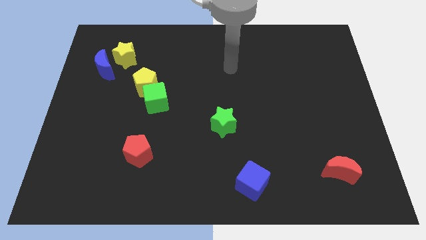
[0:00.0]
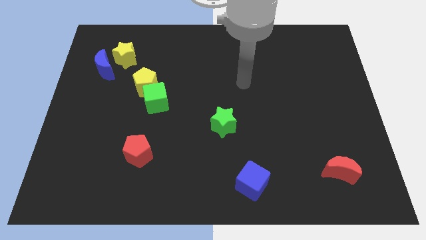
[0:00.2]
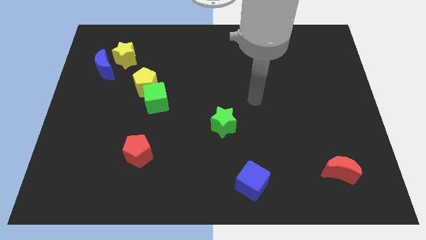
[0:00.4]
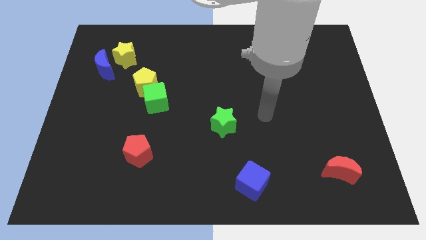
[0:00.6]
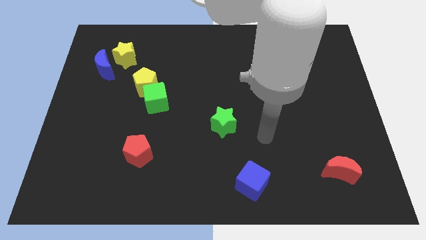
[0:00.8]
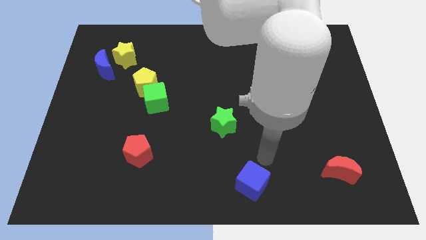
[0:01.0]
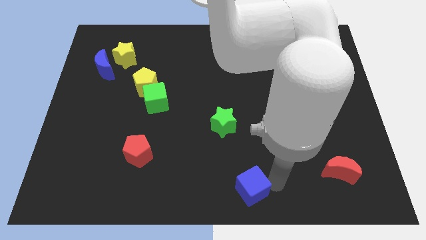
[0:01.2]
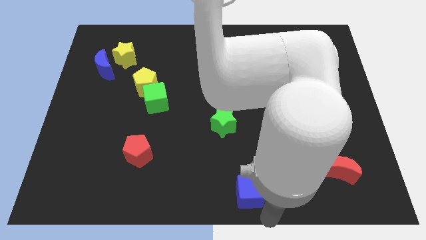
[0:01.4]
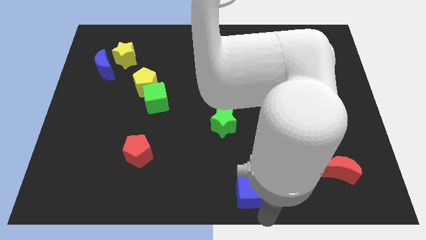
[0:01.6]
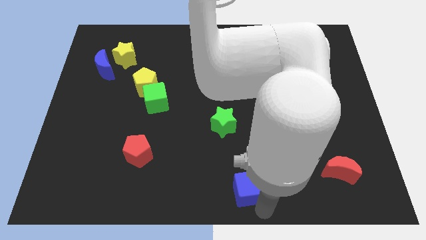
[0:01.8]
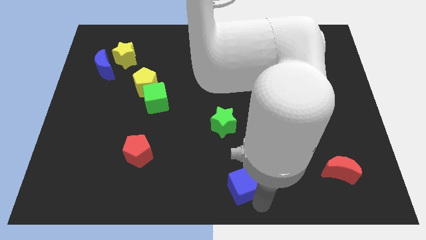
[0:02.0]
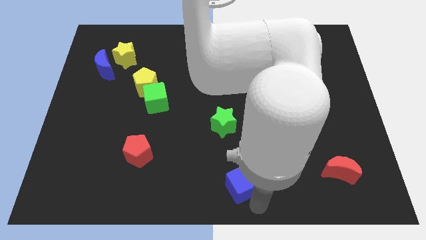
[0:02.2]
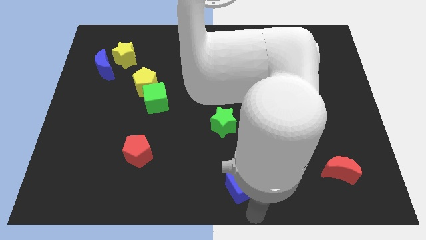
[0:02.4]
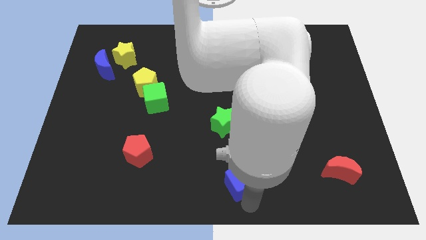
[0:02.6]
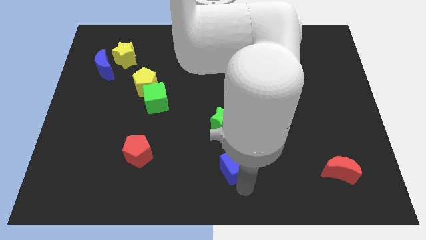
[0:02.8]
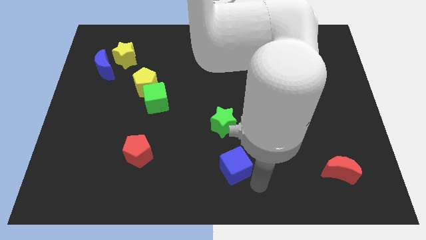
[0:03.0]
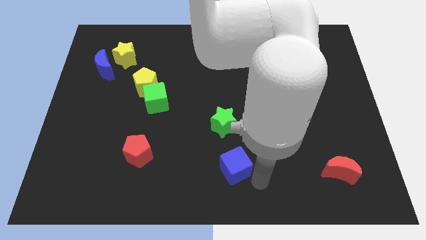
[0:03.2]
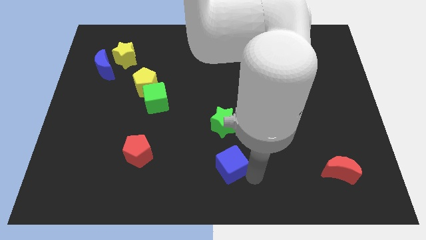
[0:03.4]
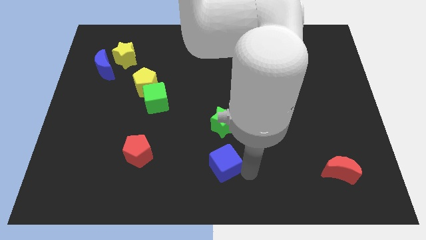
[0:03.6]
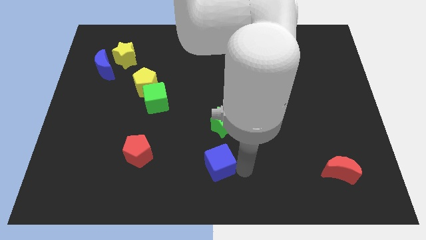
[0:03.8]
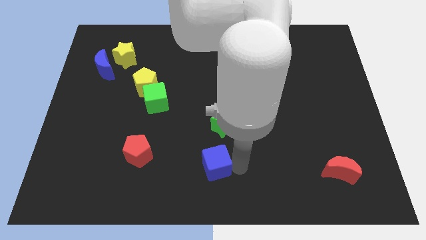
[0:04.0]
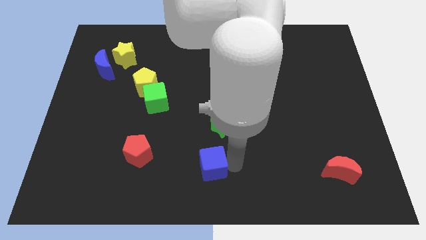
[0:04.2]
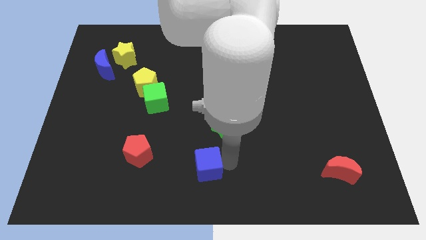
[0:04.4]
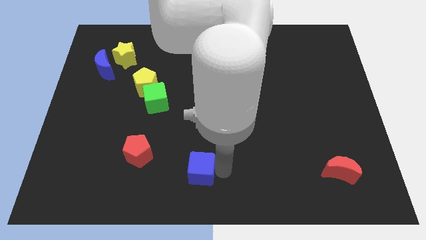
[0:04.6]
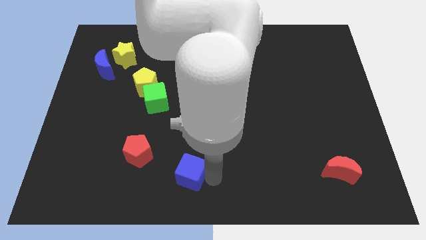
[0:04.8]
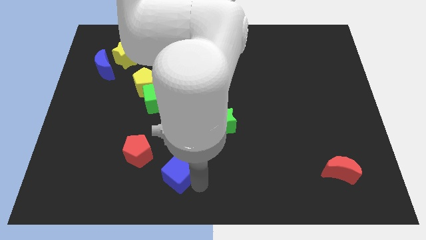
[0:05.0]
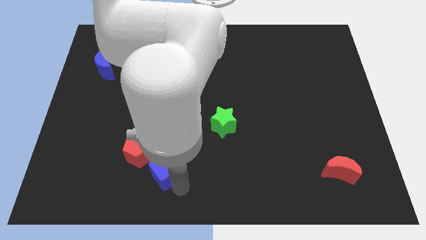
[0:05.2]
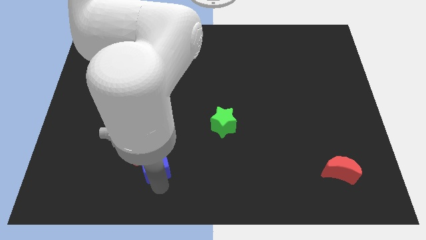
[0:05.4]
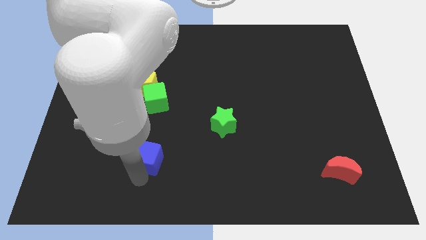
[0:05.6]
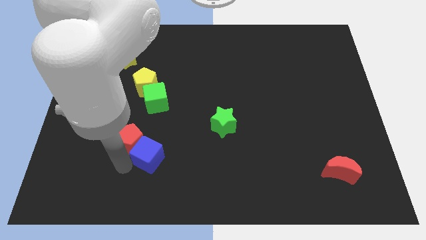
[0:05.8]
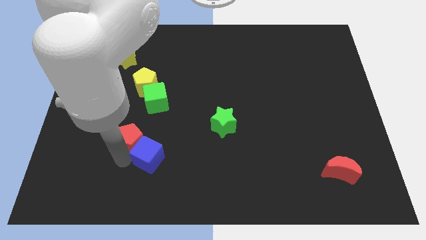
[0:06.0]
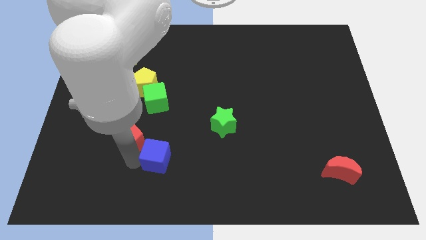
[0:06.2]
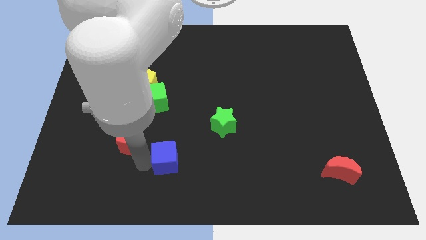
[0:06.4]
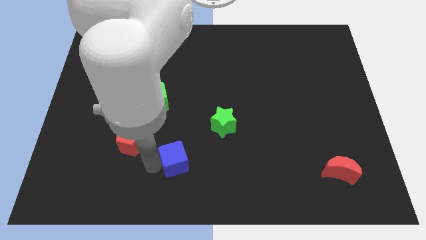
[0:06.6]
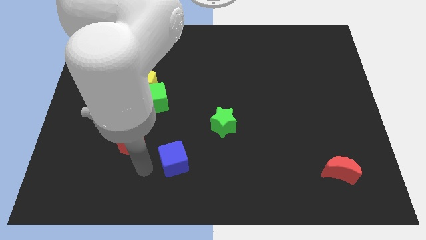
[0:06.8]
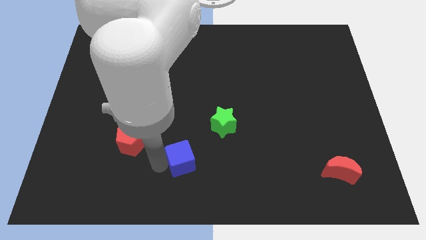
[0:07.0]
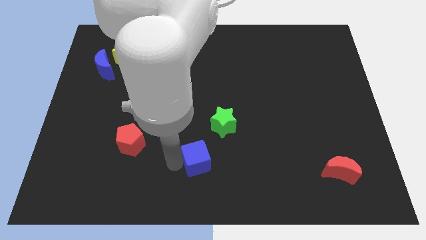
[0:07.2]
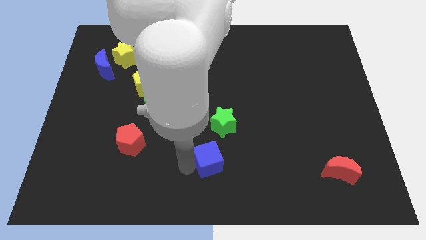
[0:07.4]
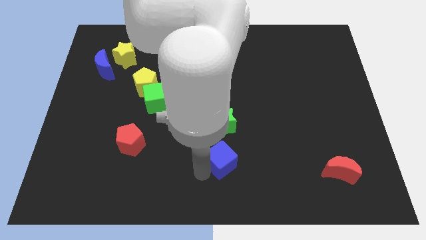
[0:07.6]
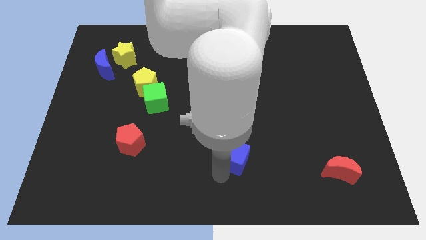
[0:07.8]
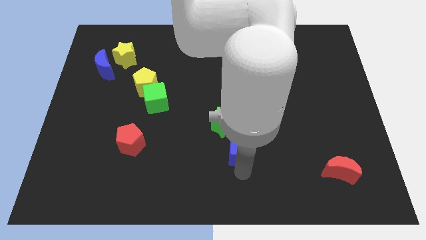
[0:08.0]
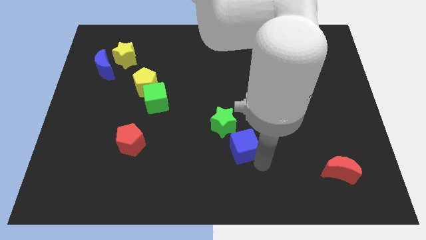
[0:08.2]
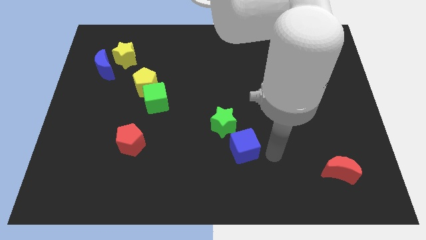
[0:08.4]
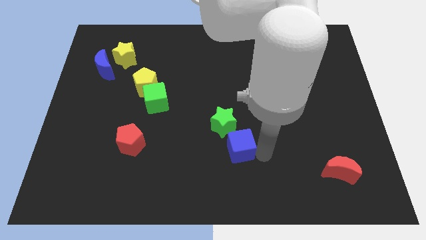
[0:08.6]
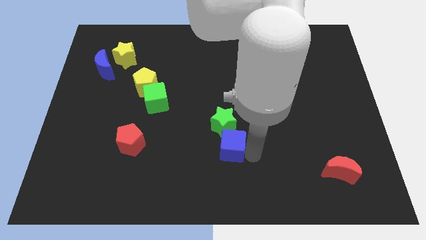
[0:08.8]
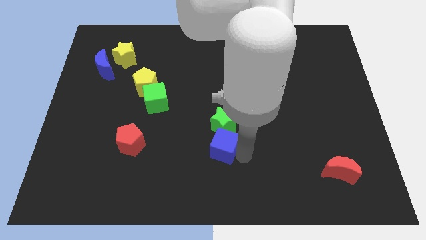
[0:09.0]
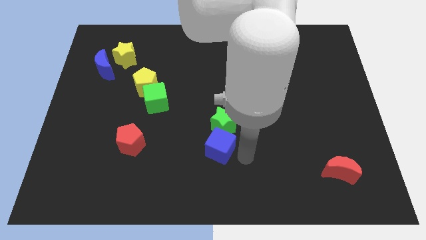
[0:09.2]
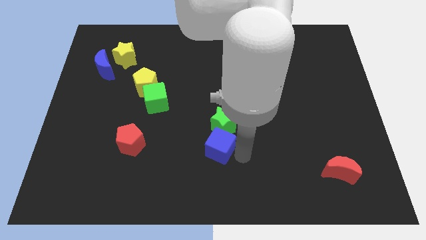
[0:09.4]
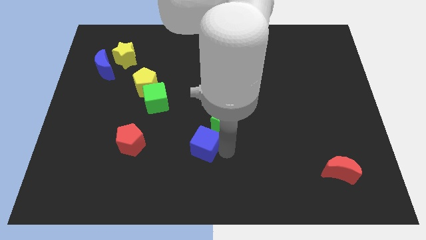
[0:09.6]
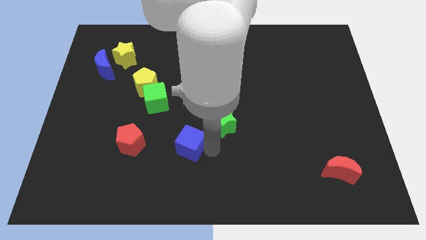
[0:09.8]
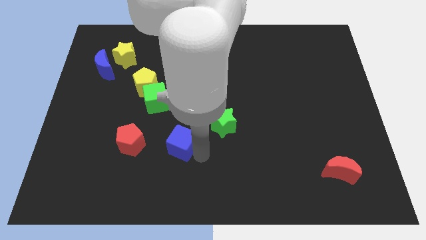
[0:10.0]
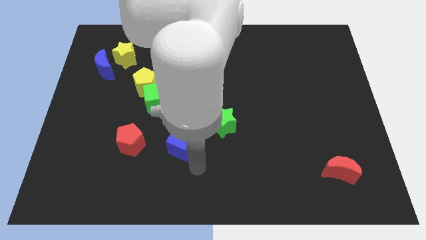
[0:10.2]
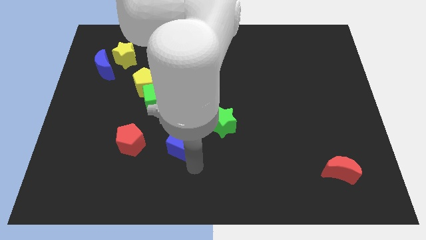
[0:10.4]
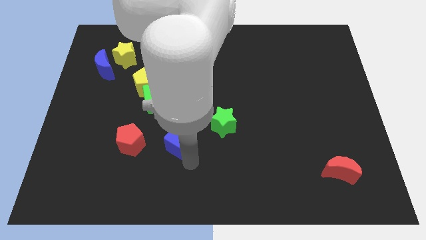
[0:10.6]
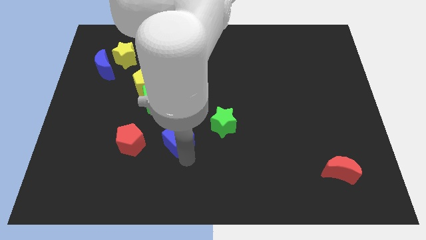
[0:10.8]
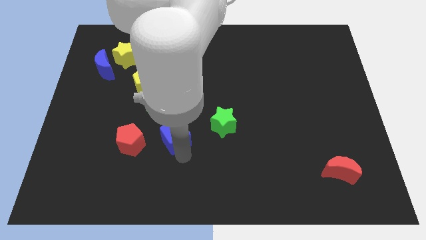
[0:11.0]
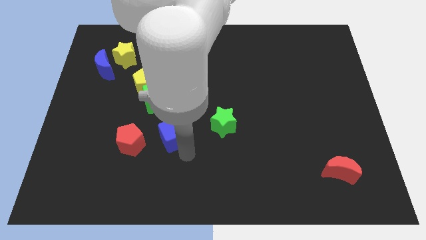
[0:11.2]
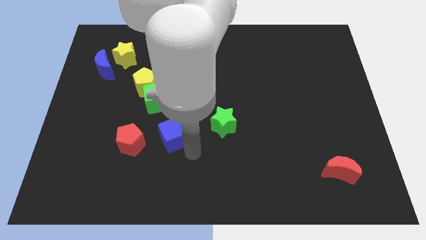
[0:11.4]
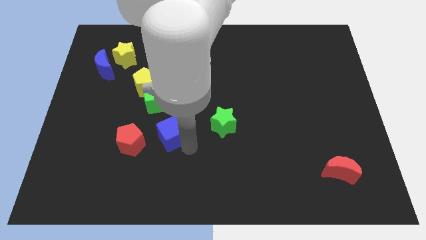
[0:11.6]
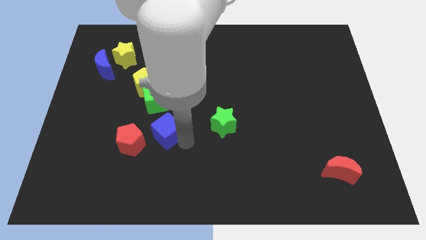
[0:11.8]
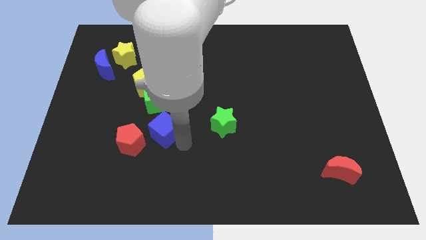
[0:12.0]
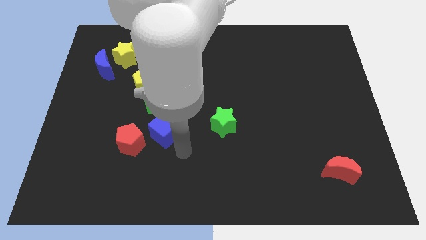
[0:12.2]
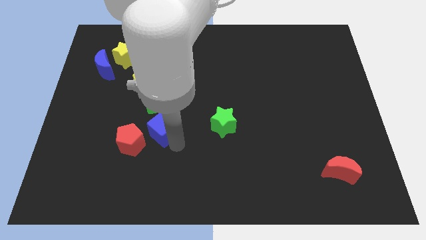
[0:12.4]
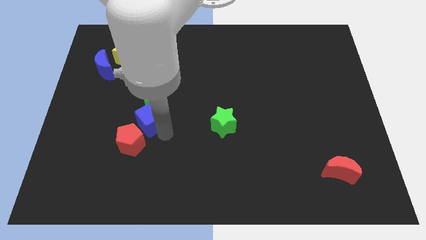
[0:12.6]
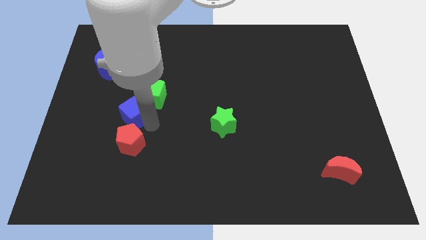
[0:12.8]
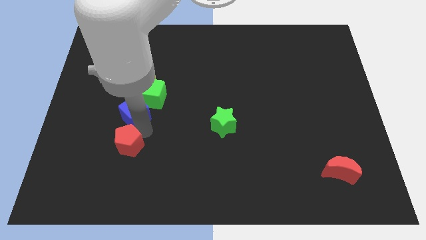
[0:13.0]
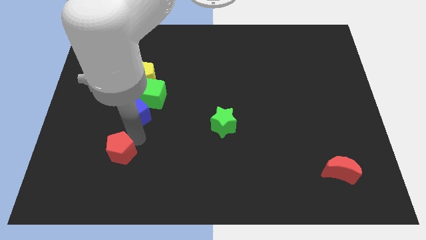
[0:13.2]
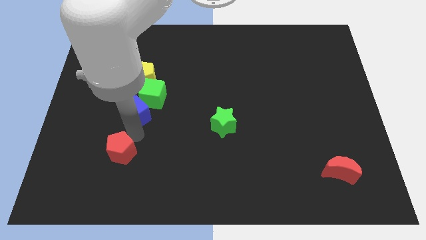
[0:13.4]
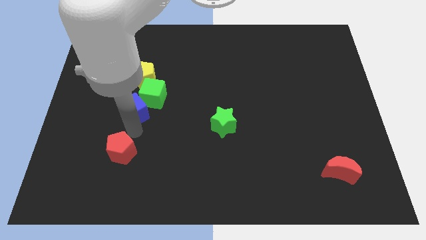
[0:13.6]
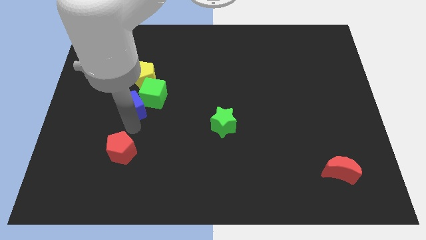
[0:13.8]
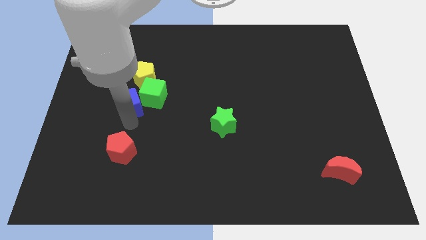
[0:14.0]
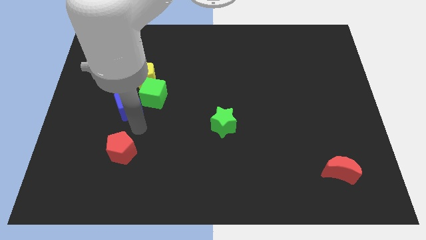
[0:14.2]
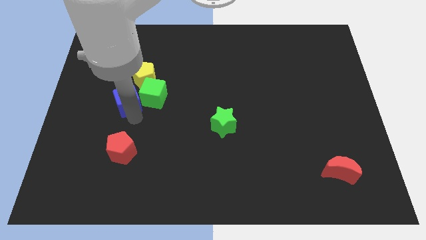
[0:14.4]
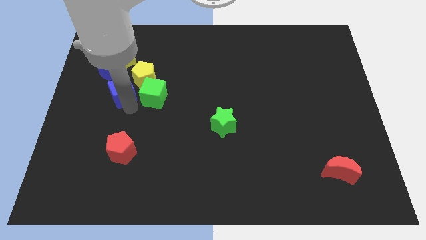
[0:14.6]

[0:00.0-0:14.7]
slide the blue cube to the top left of the green cube

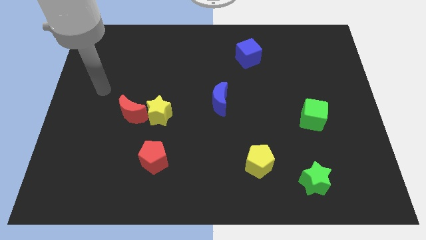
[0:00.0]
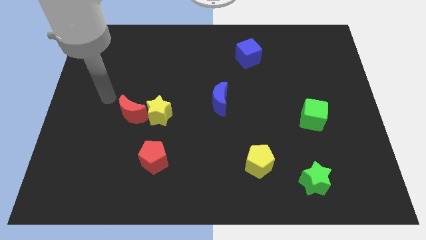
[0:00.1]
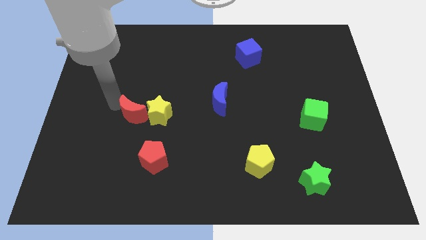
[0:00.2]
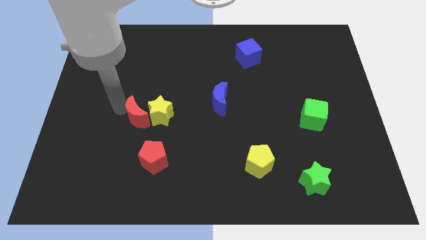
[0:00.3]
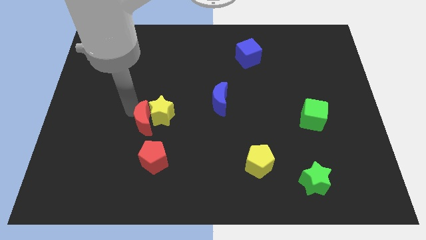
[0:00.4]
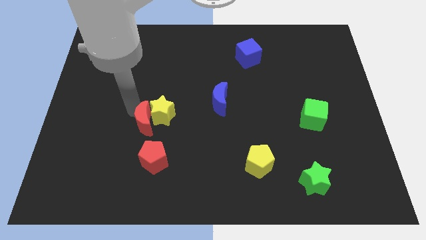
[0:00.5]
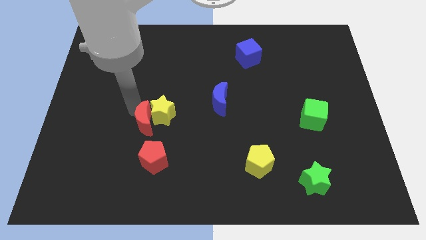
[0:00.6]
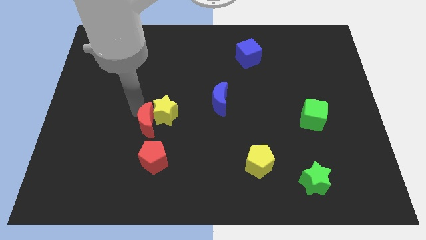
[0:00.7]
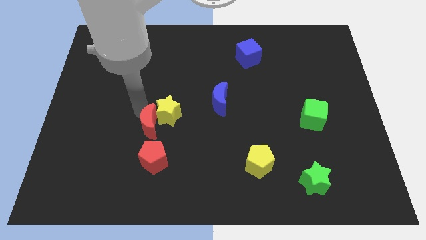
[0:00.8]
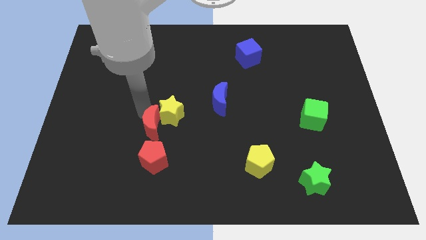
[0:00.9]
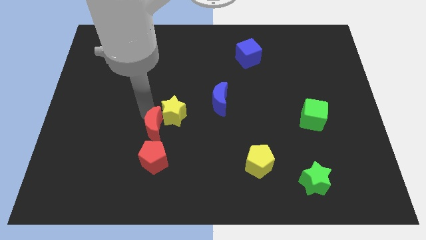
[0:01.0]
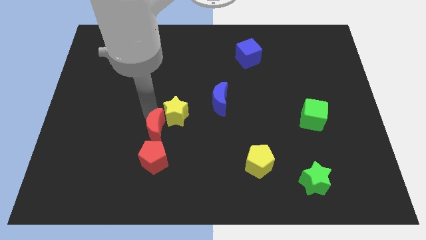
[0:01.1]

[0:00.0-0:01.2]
push the yellow star diagonally down and to the left of the blue moon
